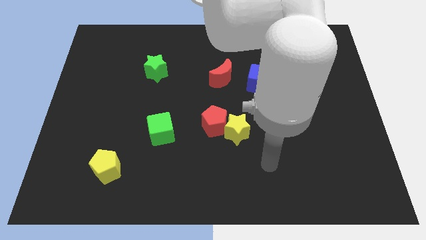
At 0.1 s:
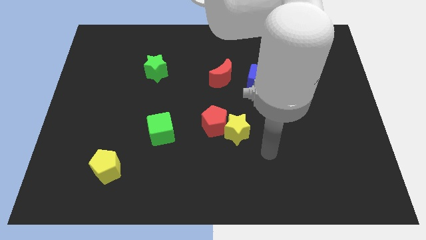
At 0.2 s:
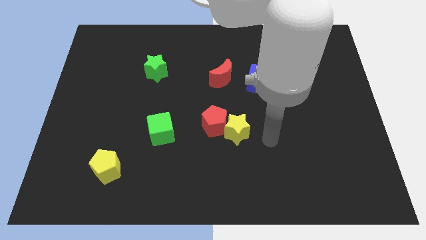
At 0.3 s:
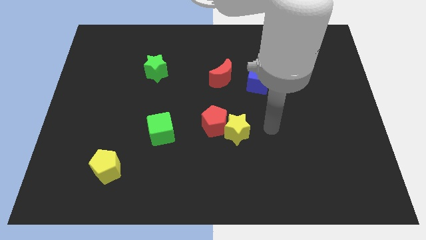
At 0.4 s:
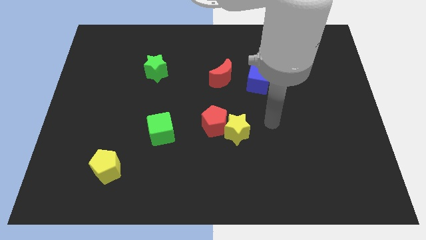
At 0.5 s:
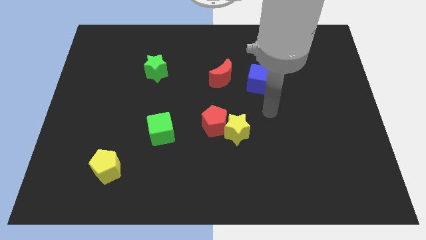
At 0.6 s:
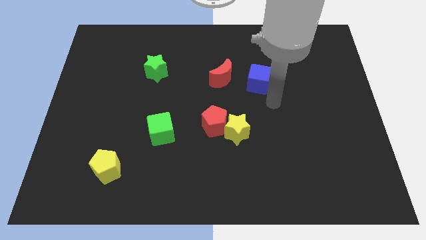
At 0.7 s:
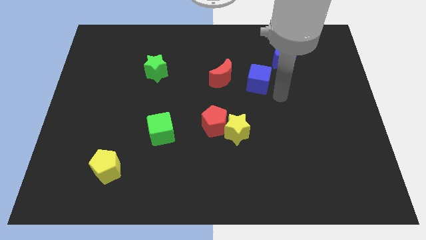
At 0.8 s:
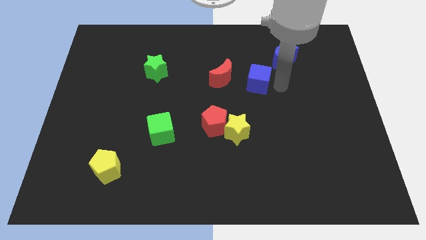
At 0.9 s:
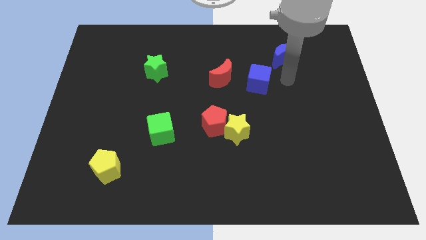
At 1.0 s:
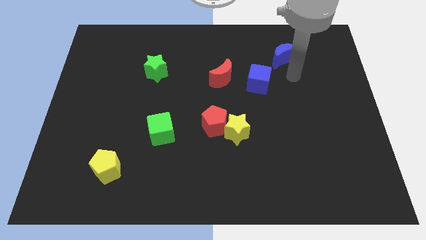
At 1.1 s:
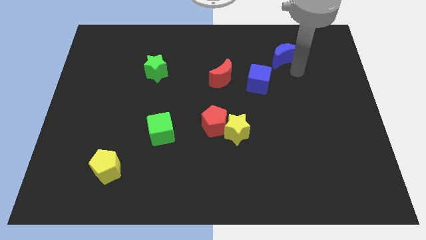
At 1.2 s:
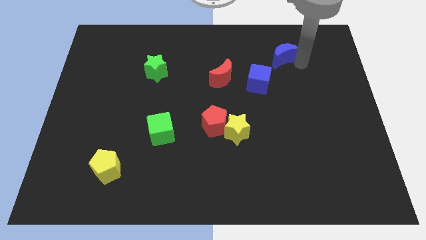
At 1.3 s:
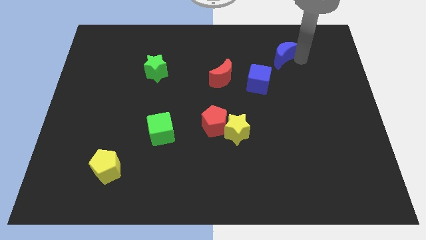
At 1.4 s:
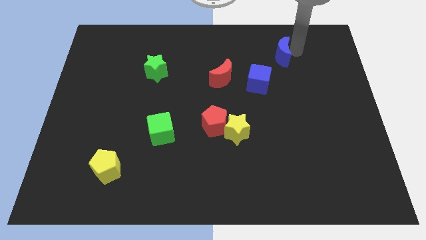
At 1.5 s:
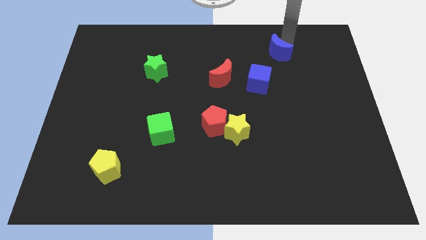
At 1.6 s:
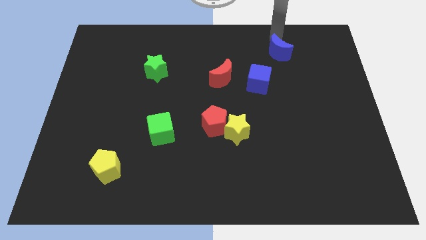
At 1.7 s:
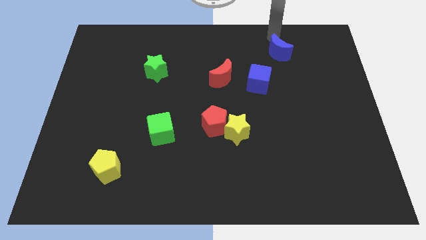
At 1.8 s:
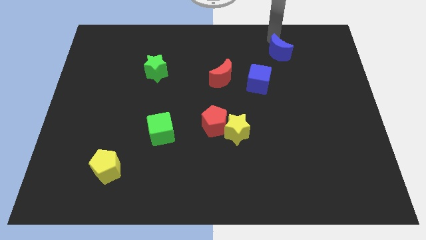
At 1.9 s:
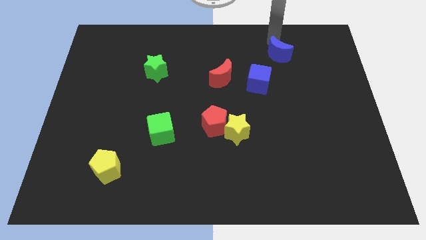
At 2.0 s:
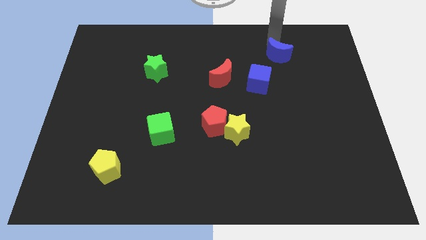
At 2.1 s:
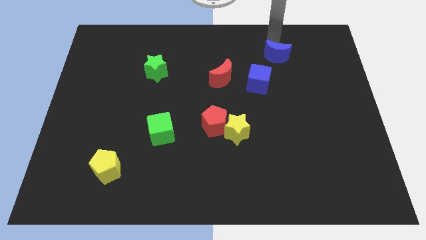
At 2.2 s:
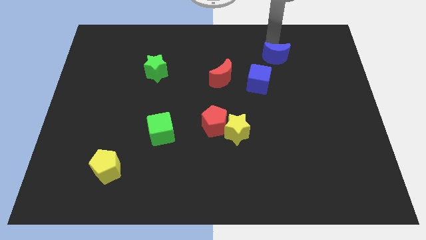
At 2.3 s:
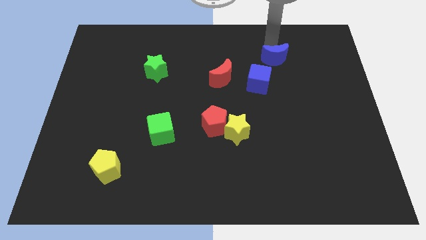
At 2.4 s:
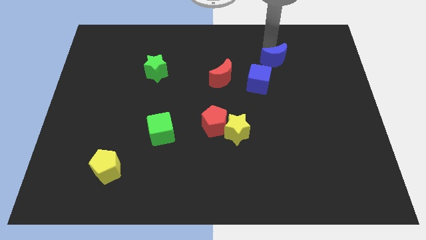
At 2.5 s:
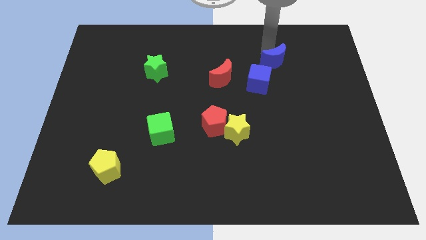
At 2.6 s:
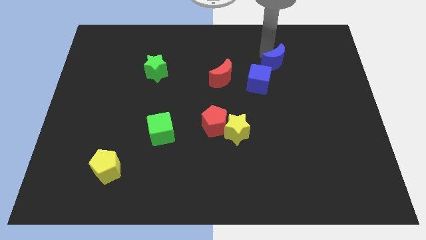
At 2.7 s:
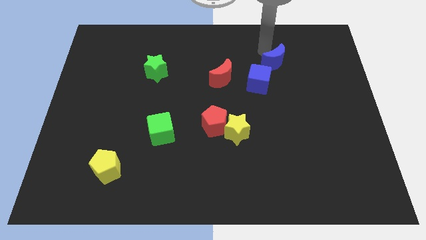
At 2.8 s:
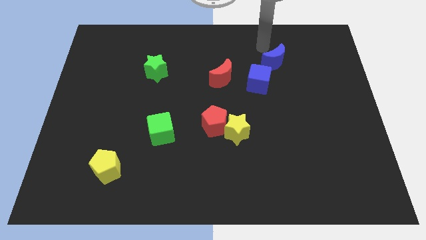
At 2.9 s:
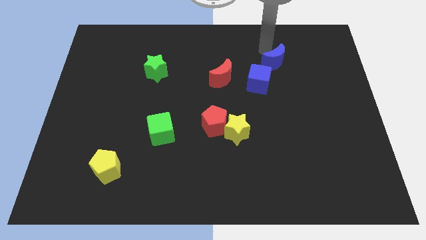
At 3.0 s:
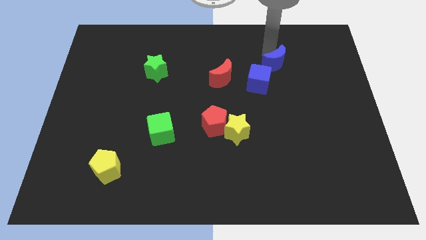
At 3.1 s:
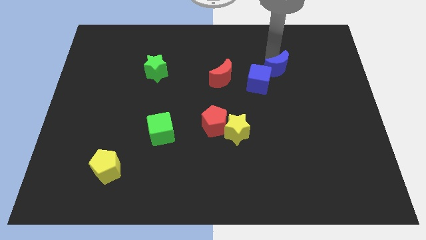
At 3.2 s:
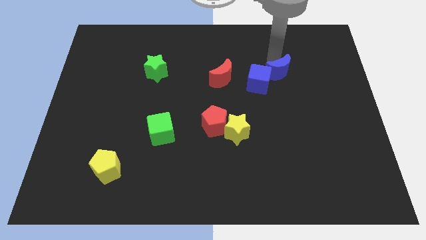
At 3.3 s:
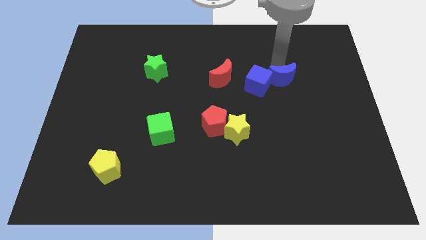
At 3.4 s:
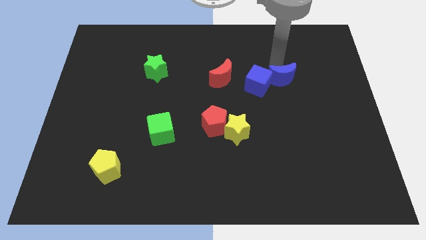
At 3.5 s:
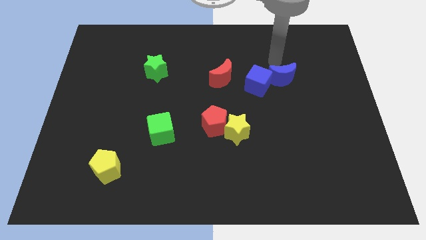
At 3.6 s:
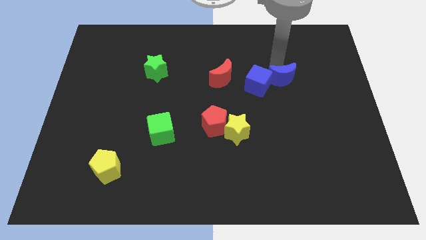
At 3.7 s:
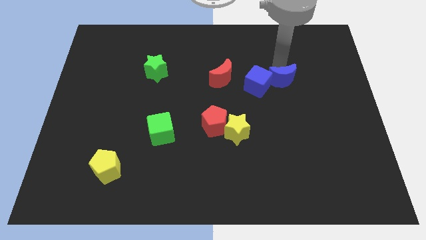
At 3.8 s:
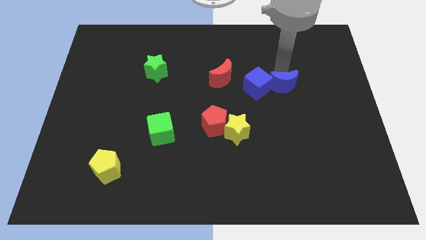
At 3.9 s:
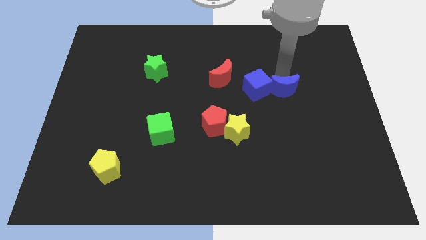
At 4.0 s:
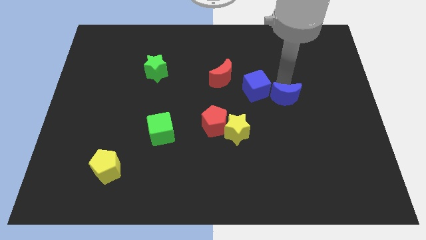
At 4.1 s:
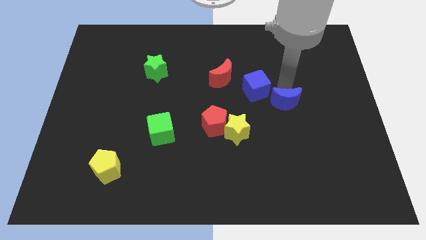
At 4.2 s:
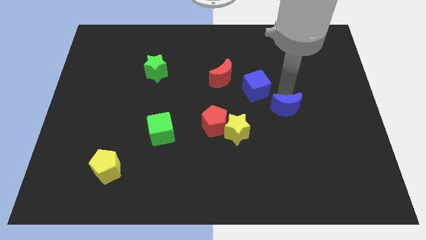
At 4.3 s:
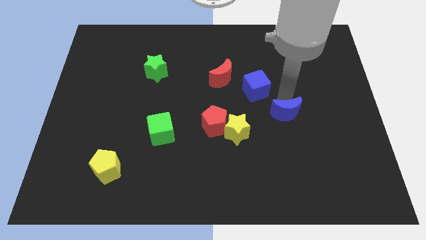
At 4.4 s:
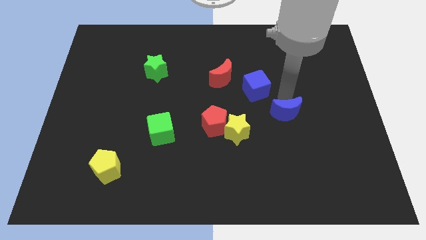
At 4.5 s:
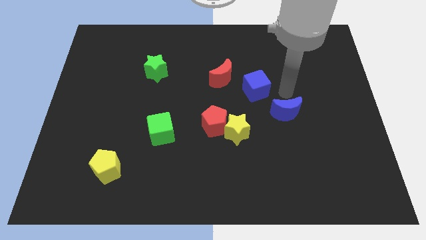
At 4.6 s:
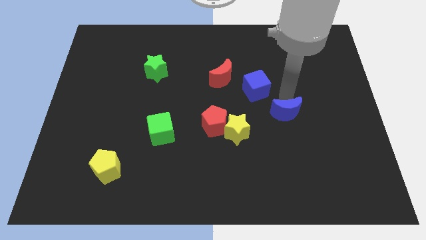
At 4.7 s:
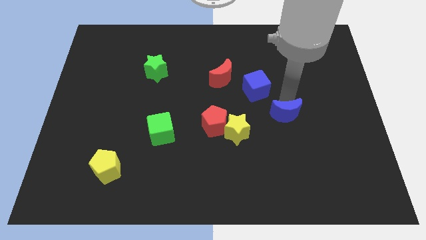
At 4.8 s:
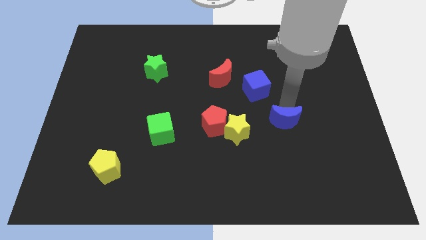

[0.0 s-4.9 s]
push the blue moon down

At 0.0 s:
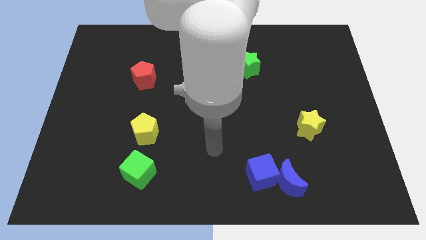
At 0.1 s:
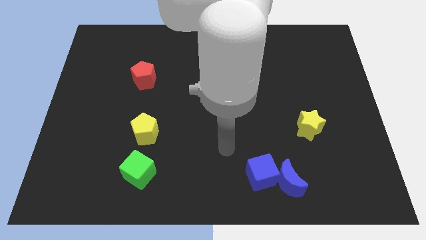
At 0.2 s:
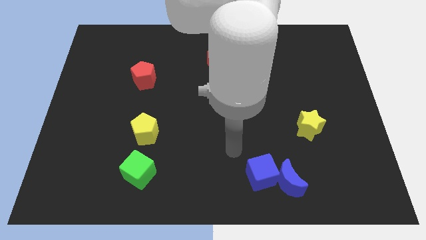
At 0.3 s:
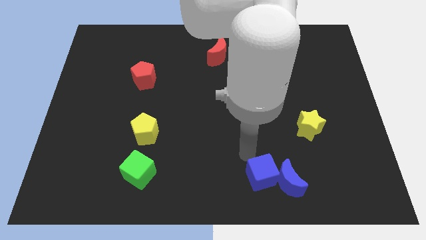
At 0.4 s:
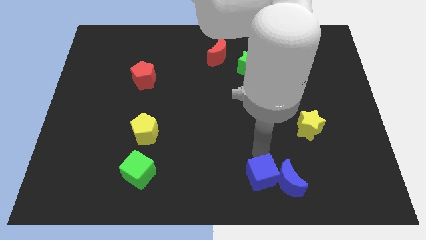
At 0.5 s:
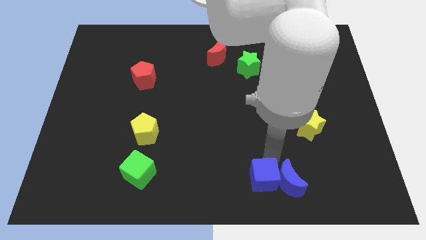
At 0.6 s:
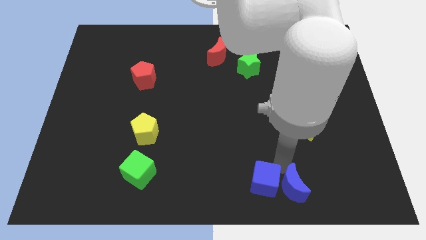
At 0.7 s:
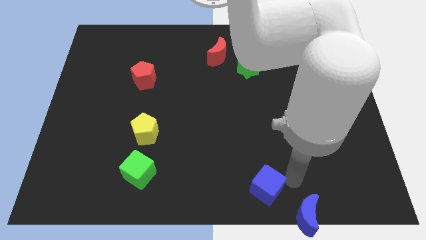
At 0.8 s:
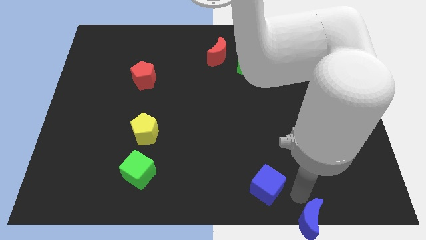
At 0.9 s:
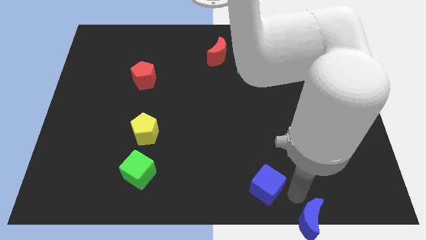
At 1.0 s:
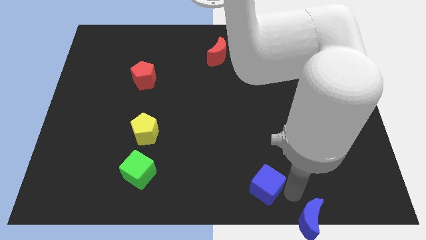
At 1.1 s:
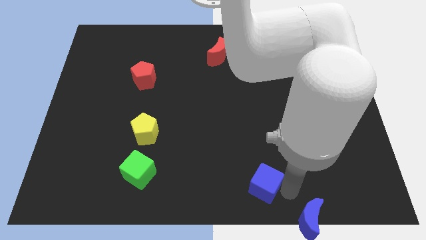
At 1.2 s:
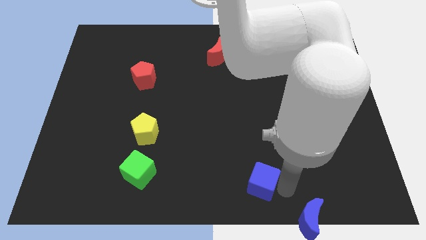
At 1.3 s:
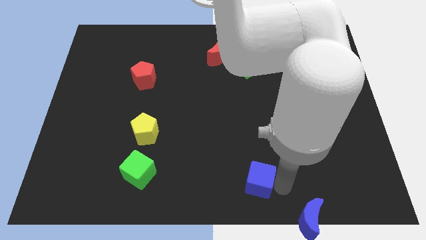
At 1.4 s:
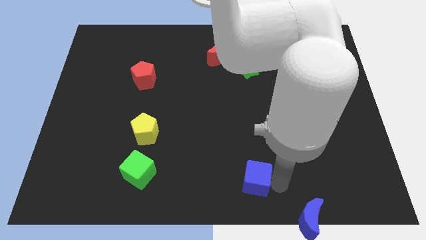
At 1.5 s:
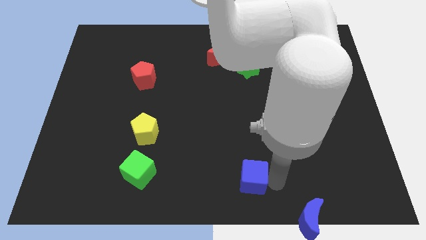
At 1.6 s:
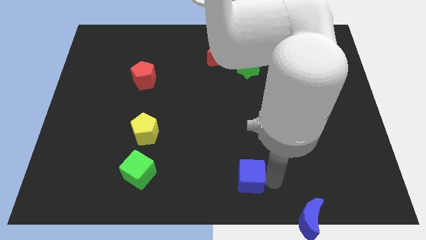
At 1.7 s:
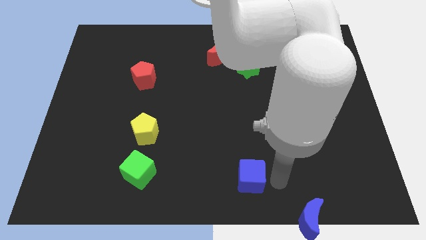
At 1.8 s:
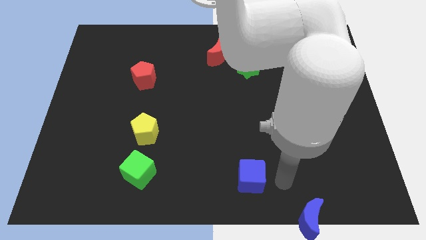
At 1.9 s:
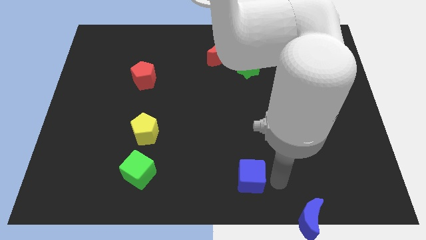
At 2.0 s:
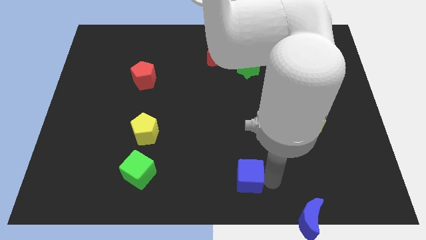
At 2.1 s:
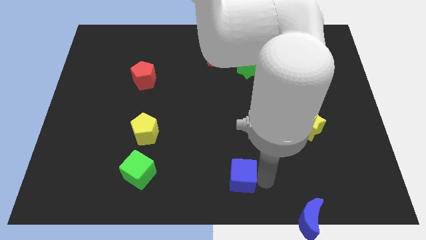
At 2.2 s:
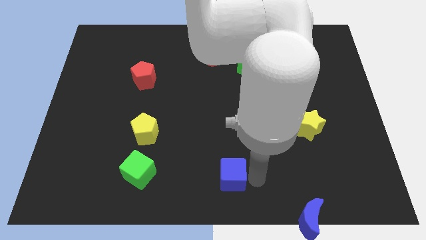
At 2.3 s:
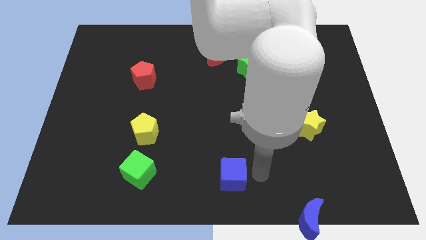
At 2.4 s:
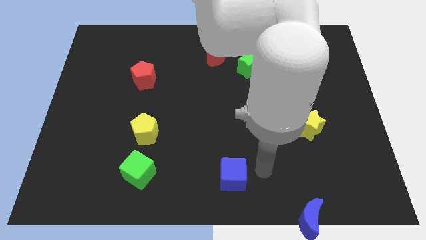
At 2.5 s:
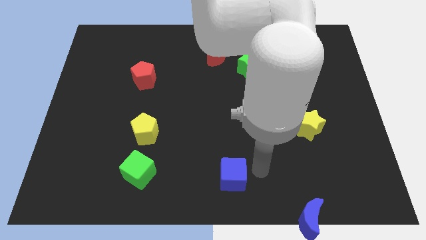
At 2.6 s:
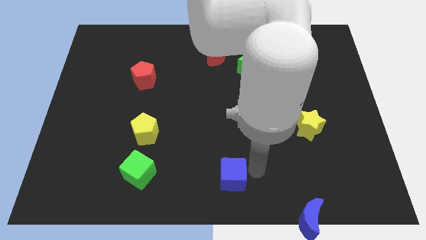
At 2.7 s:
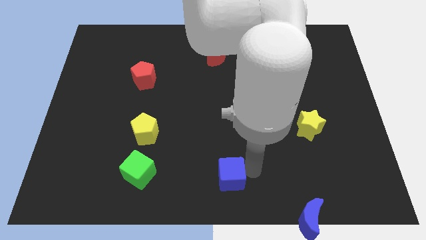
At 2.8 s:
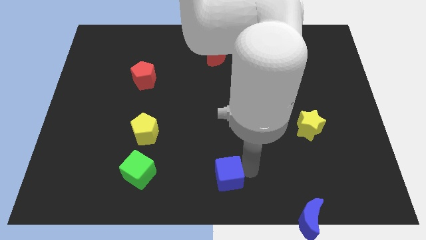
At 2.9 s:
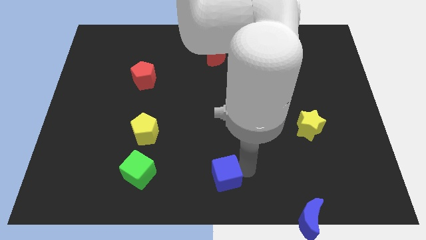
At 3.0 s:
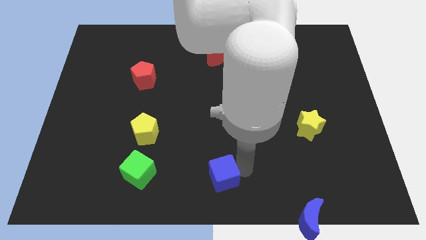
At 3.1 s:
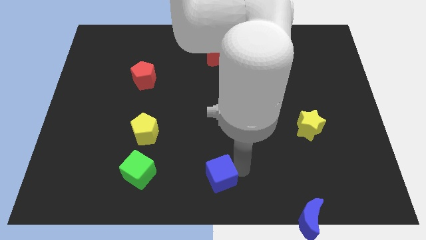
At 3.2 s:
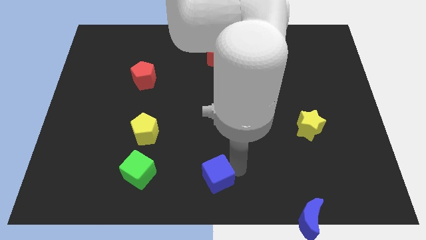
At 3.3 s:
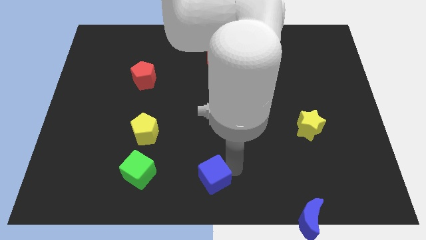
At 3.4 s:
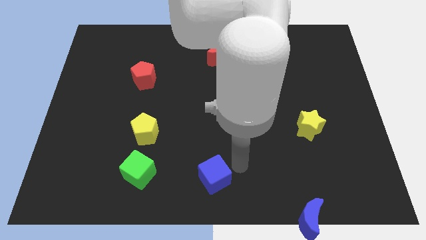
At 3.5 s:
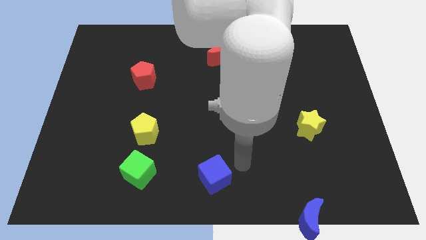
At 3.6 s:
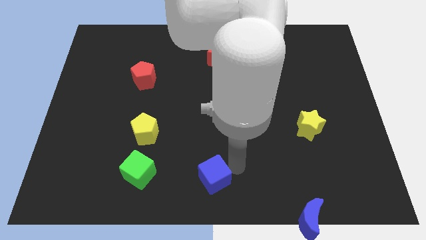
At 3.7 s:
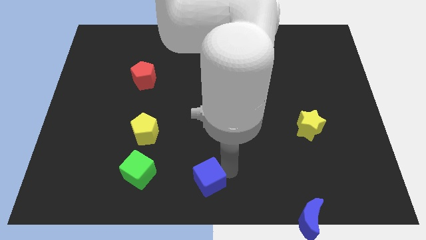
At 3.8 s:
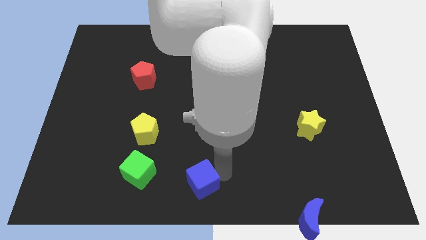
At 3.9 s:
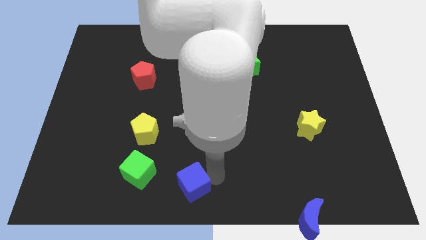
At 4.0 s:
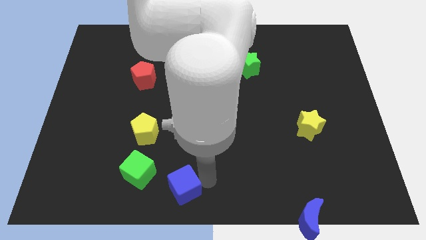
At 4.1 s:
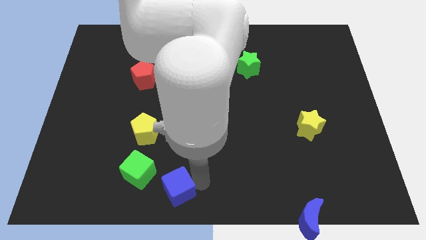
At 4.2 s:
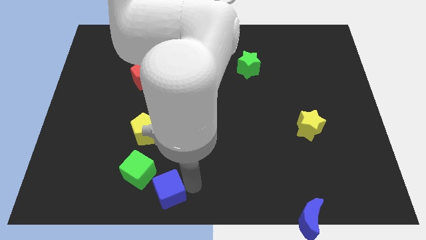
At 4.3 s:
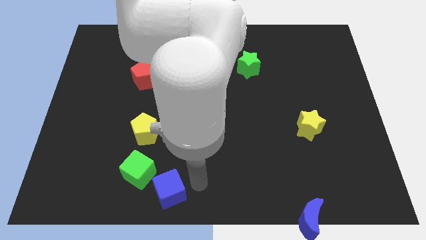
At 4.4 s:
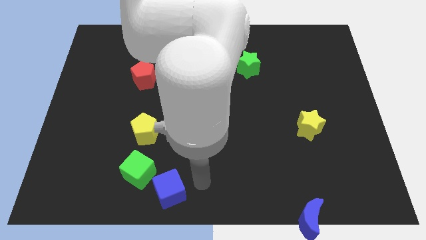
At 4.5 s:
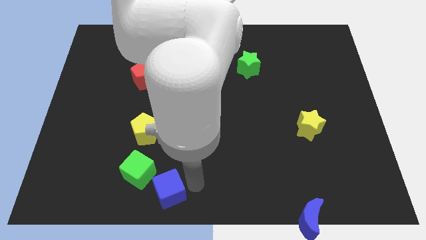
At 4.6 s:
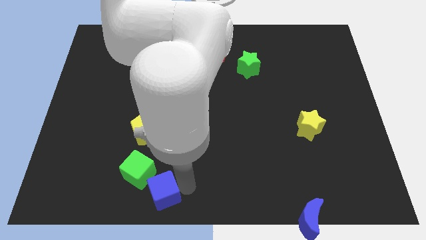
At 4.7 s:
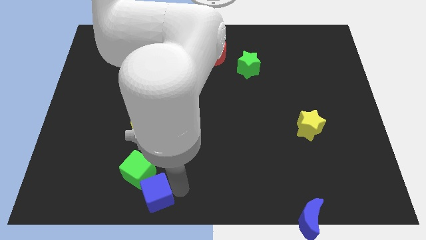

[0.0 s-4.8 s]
move the blue cube left
